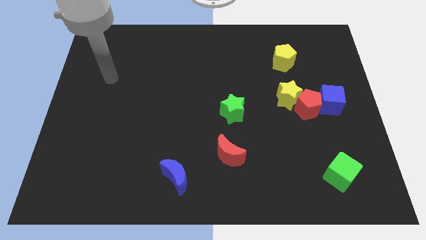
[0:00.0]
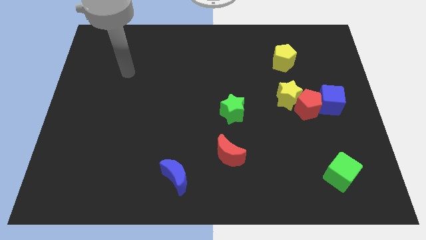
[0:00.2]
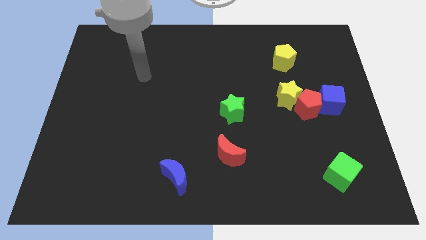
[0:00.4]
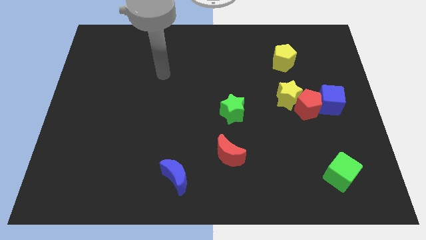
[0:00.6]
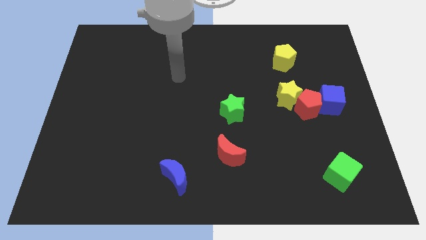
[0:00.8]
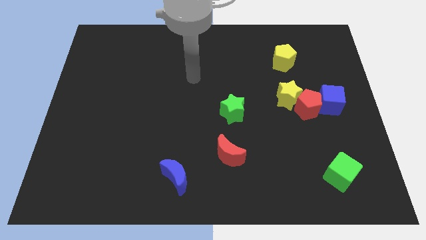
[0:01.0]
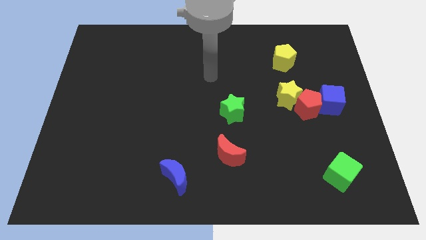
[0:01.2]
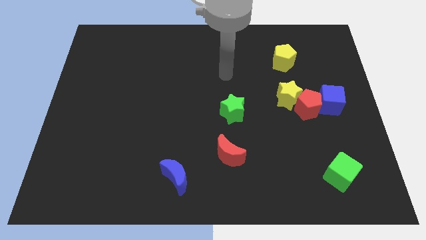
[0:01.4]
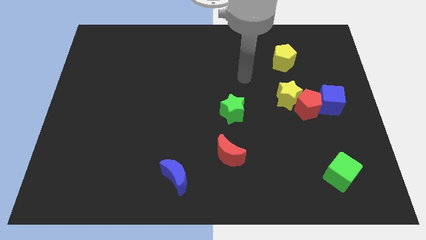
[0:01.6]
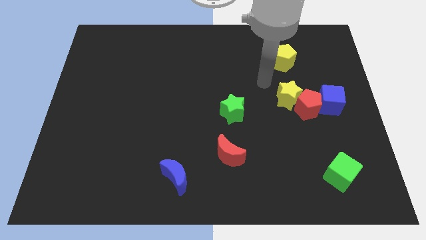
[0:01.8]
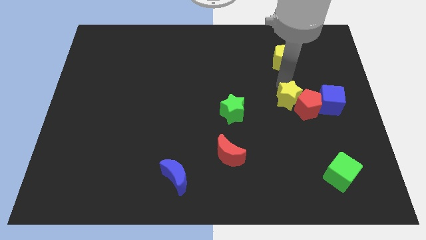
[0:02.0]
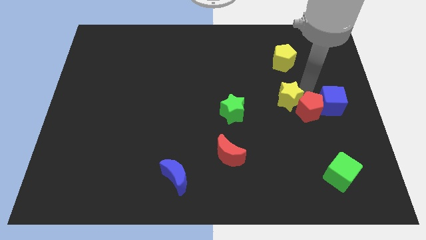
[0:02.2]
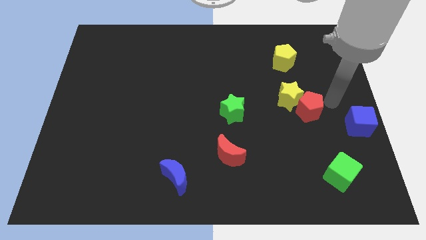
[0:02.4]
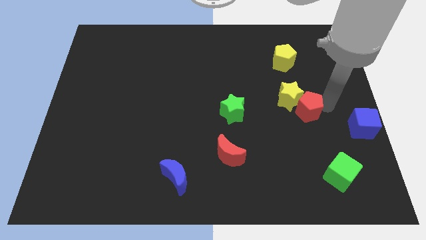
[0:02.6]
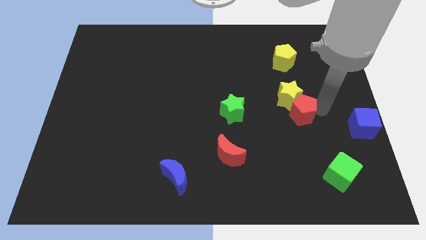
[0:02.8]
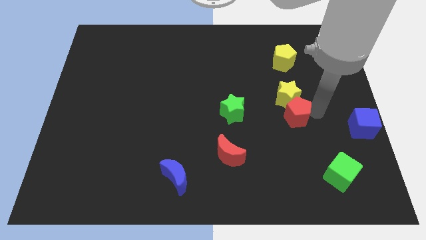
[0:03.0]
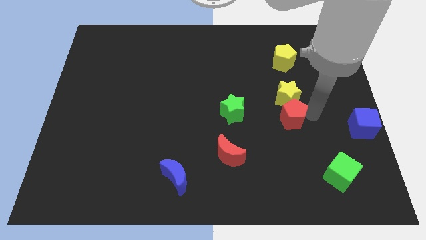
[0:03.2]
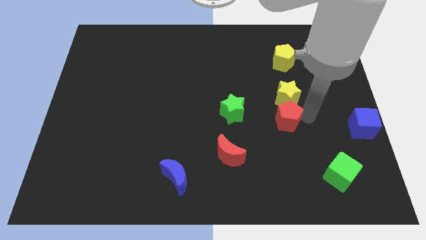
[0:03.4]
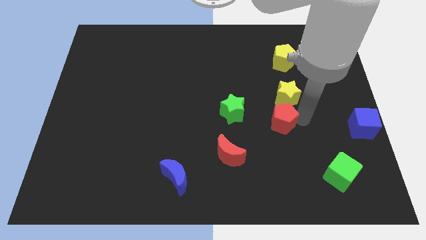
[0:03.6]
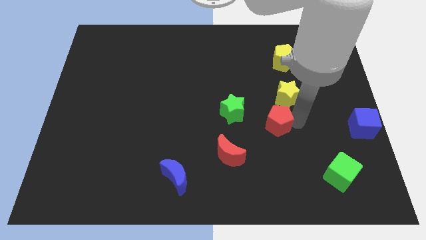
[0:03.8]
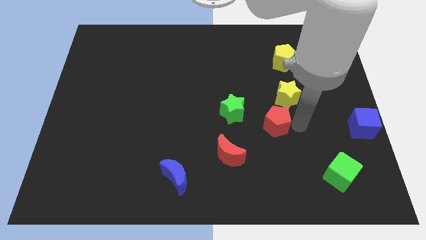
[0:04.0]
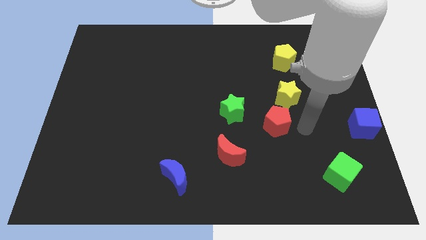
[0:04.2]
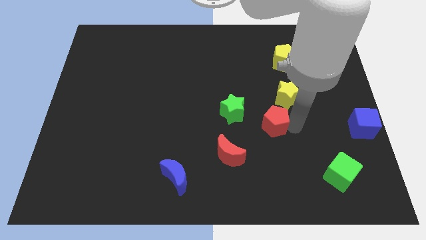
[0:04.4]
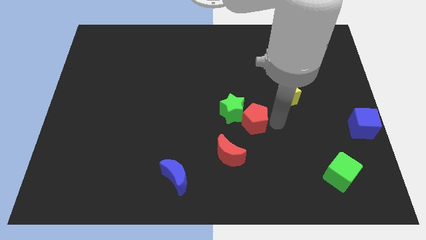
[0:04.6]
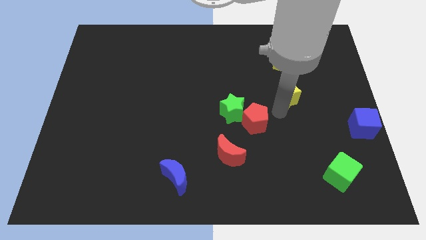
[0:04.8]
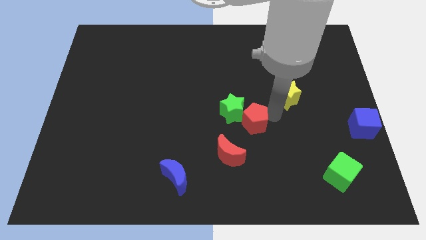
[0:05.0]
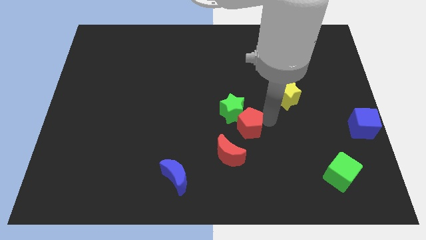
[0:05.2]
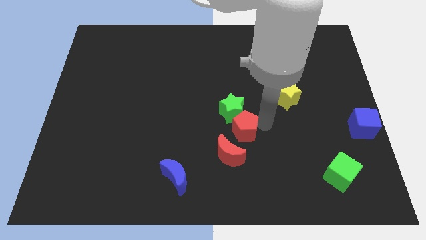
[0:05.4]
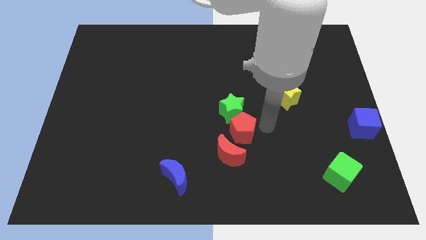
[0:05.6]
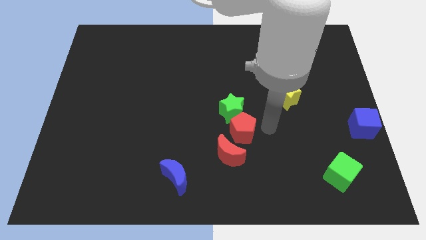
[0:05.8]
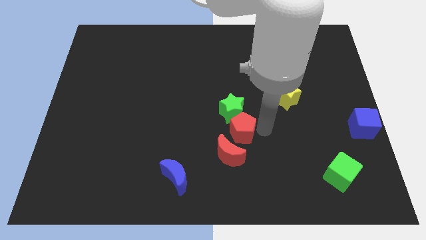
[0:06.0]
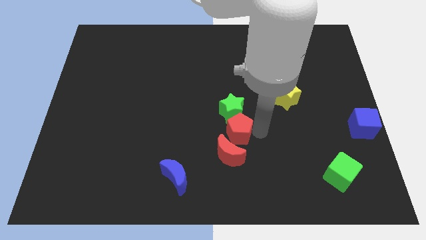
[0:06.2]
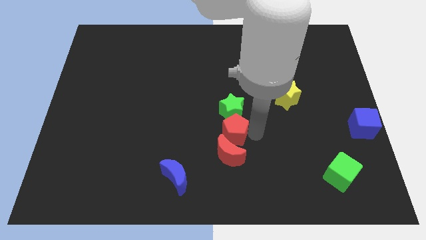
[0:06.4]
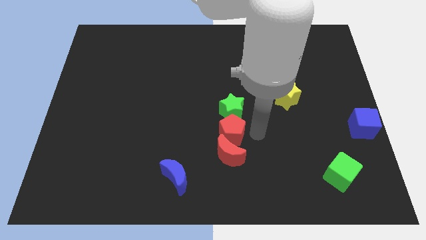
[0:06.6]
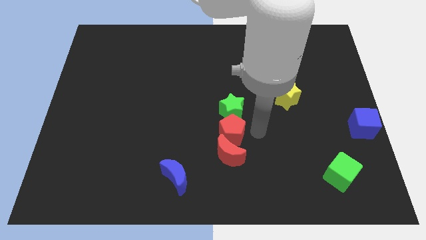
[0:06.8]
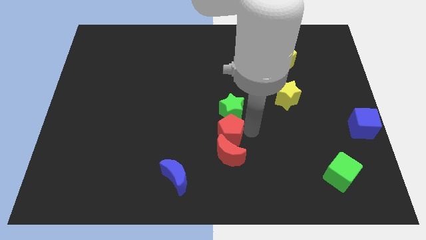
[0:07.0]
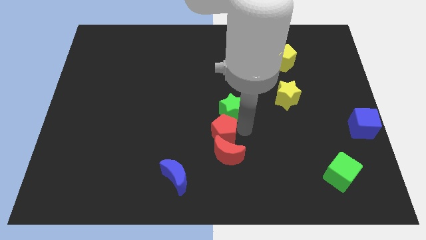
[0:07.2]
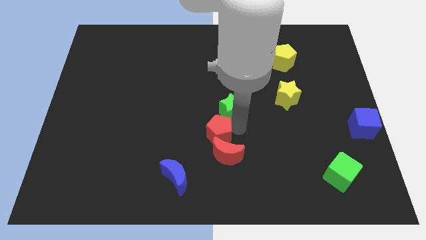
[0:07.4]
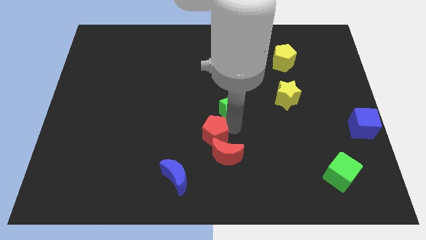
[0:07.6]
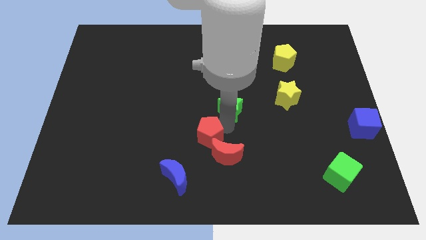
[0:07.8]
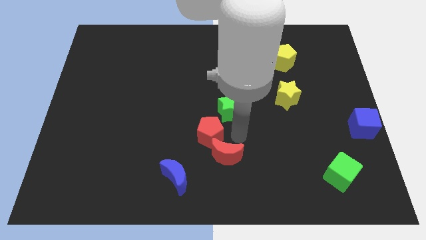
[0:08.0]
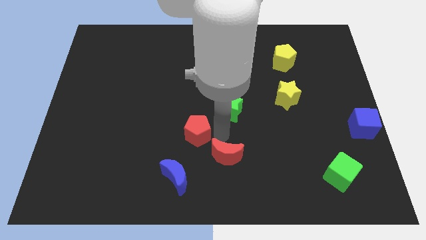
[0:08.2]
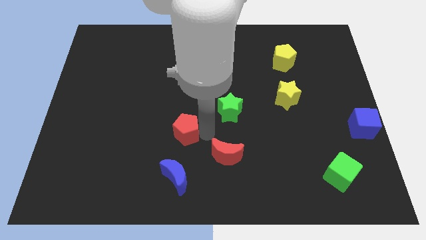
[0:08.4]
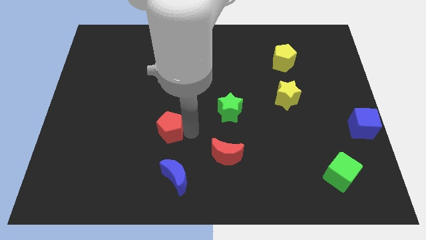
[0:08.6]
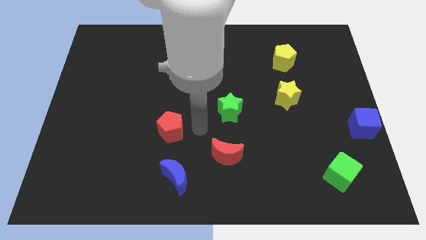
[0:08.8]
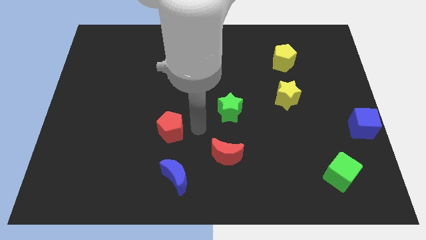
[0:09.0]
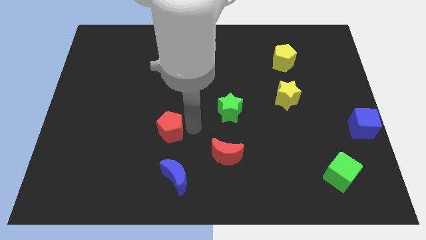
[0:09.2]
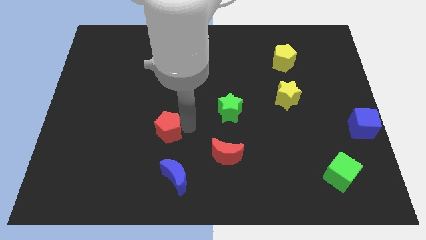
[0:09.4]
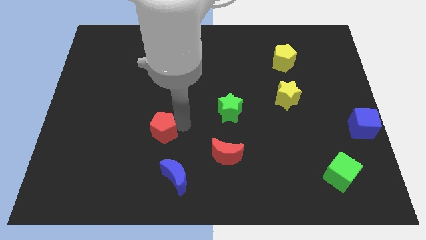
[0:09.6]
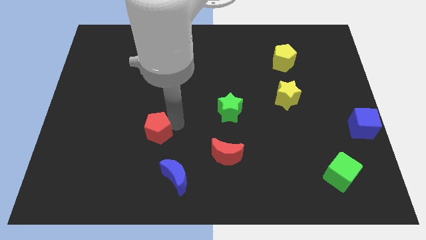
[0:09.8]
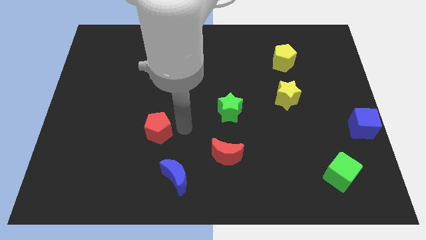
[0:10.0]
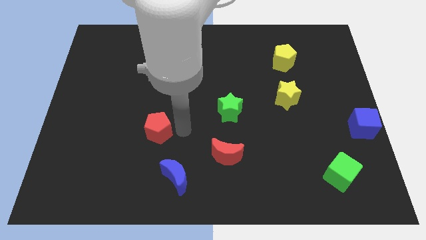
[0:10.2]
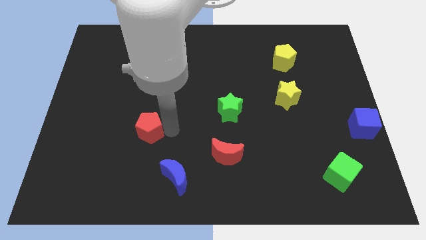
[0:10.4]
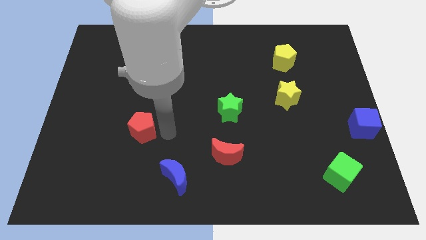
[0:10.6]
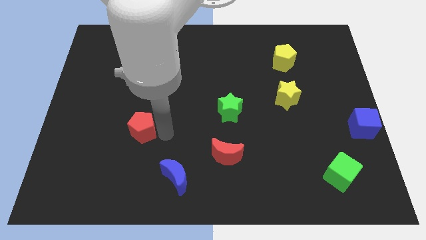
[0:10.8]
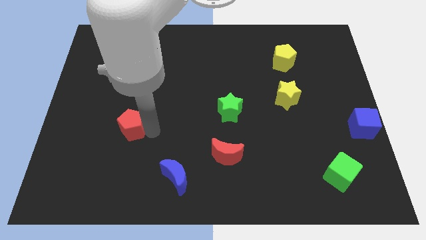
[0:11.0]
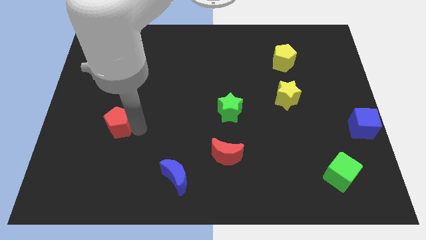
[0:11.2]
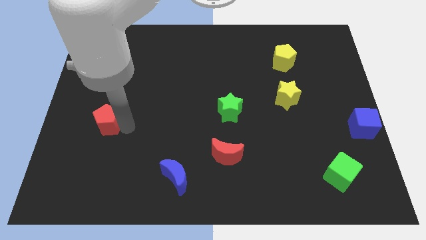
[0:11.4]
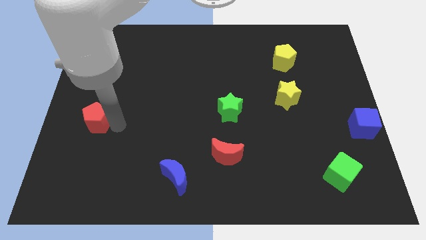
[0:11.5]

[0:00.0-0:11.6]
slide the red pentagon to the left side of the board
